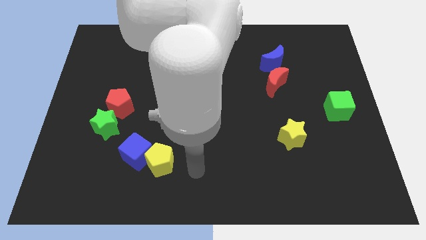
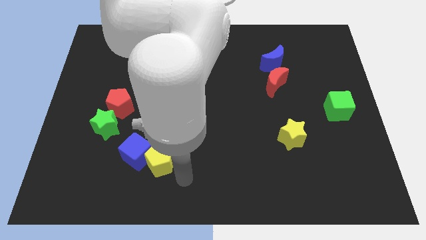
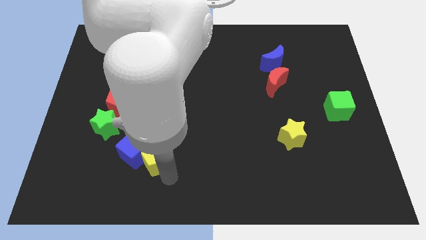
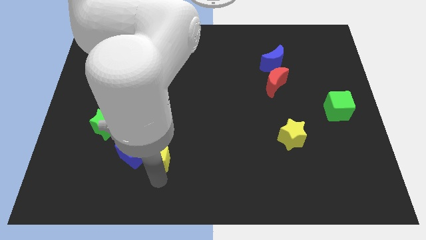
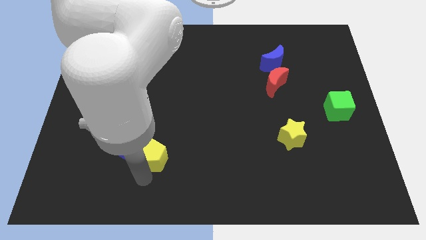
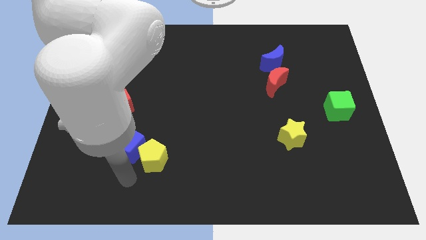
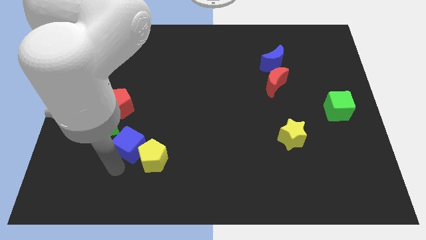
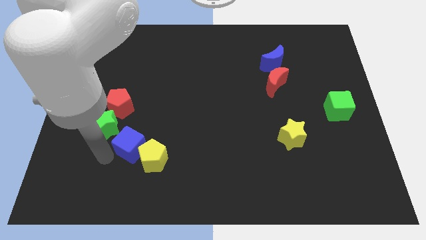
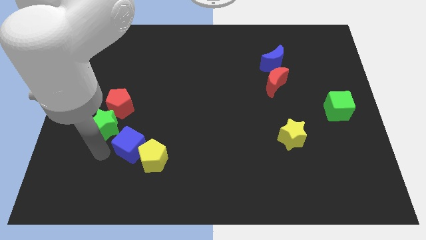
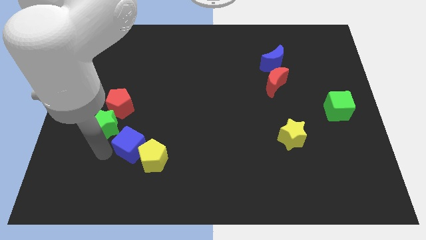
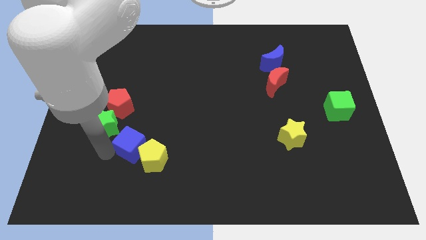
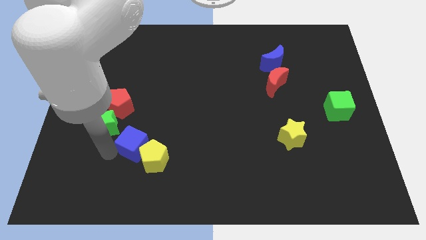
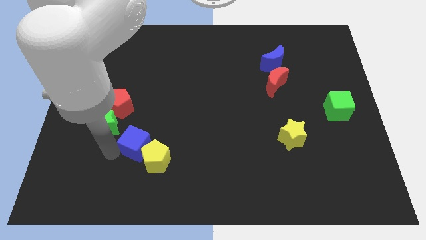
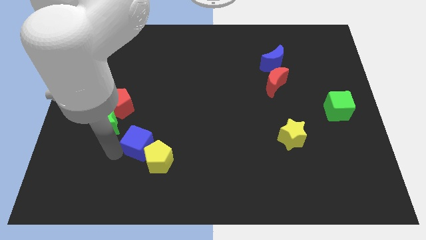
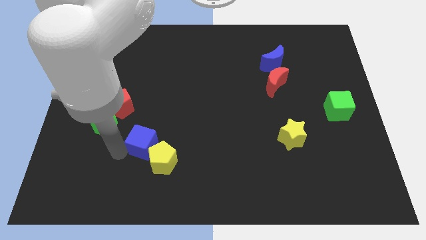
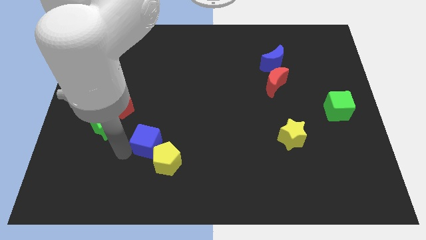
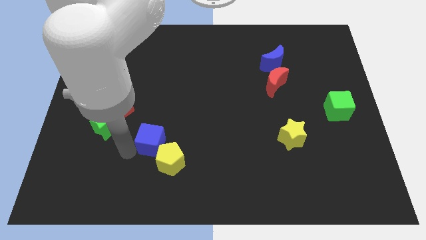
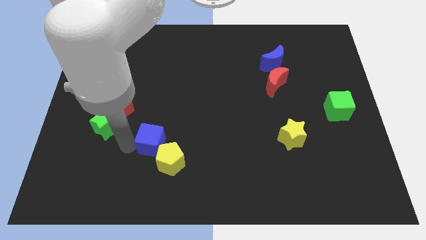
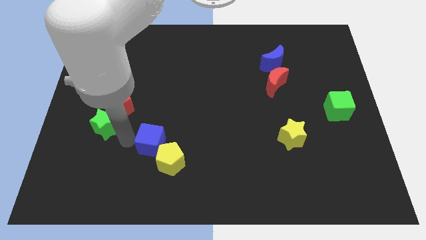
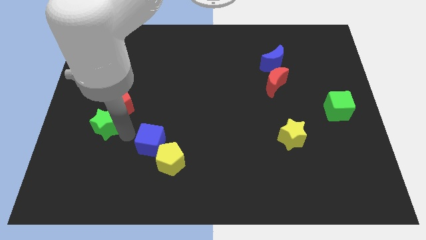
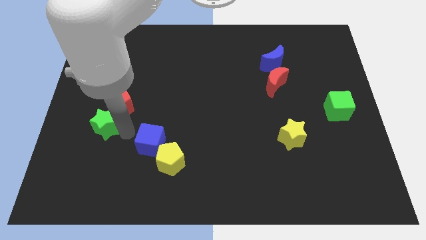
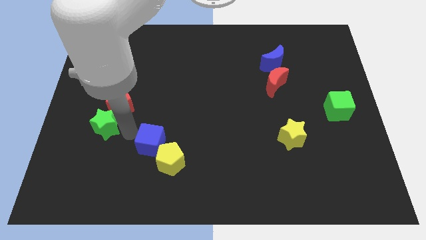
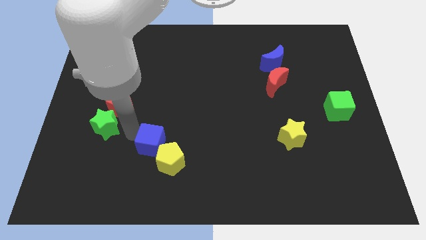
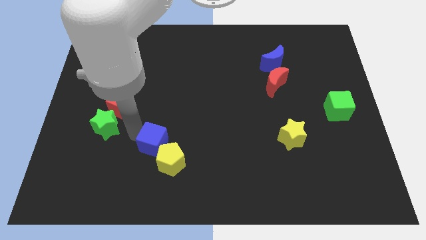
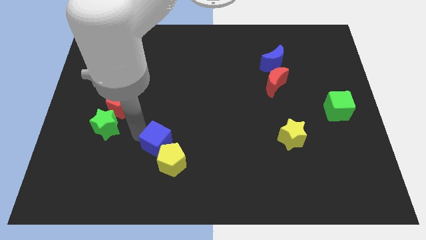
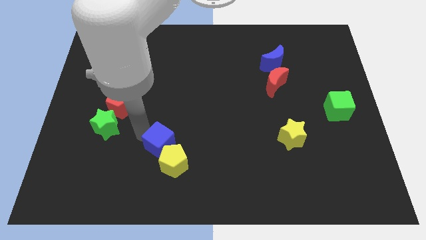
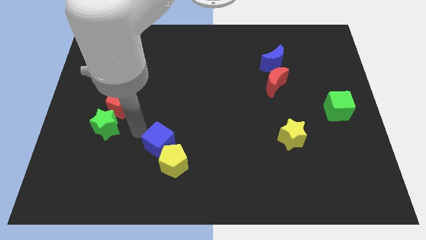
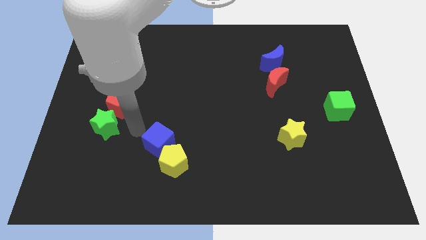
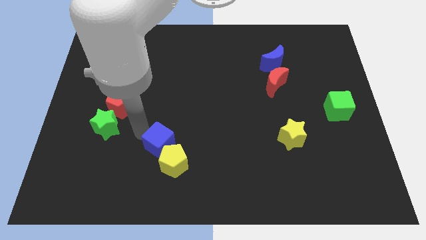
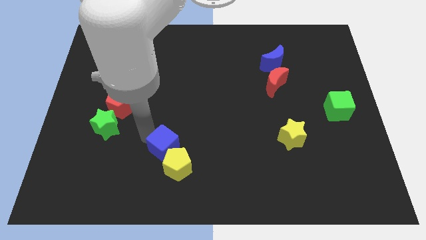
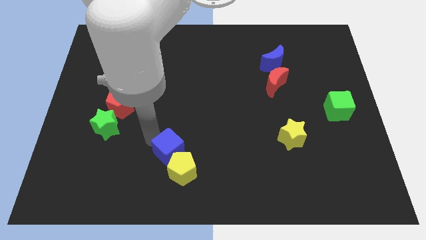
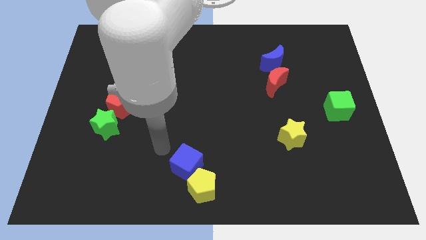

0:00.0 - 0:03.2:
slightly slide the blue cube to the right

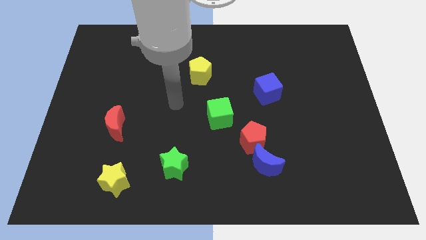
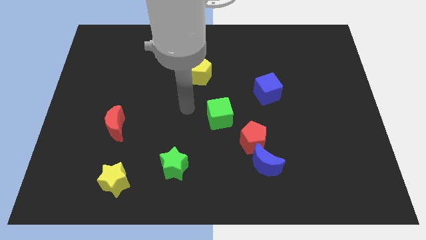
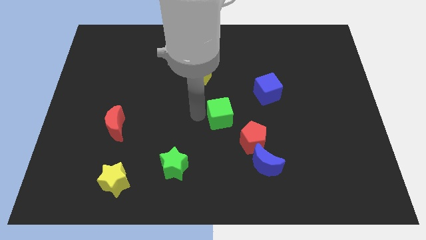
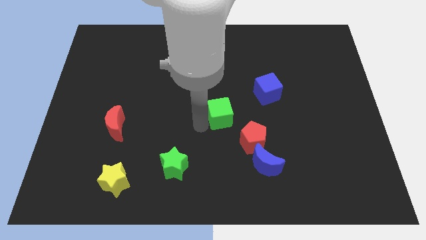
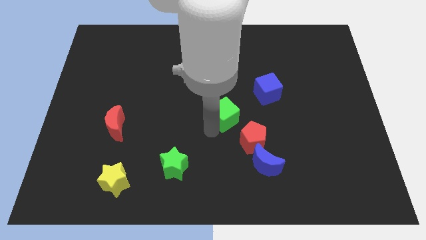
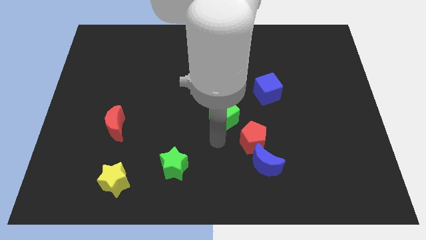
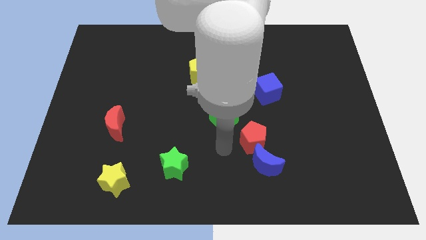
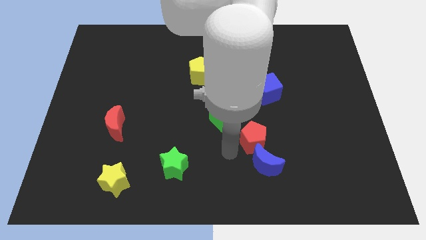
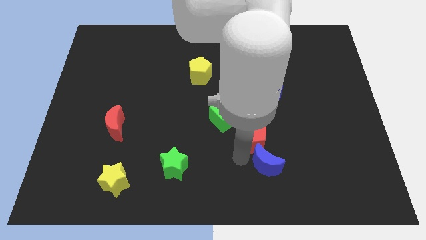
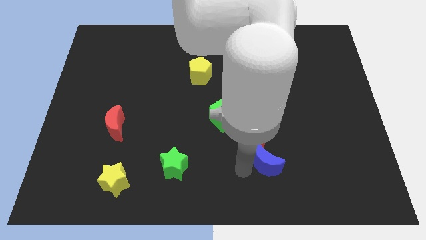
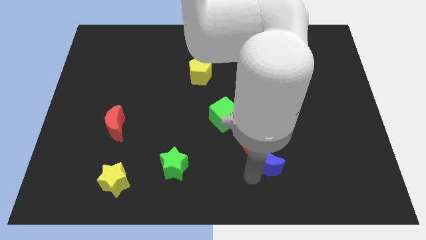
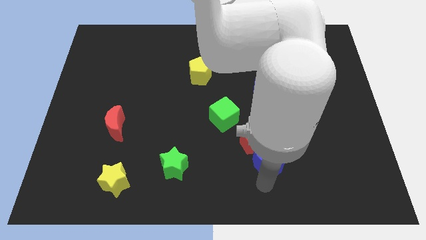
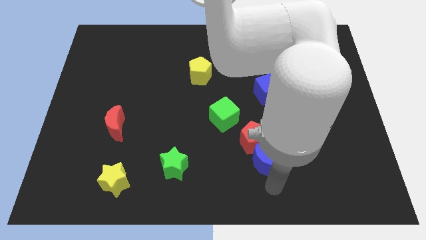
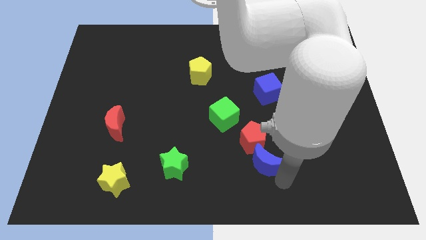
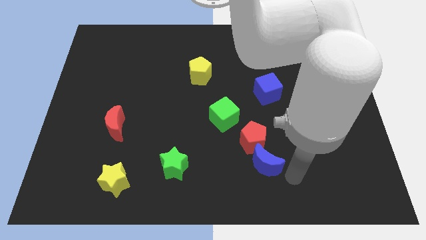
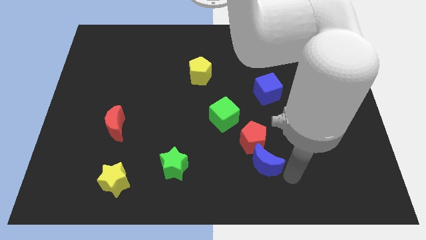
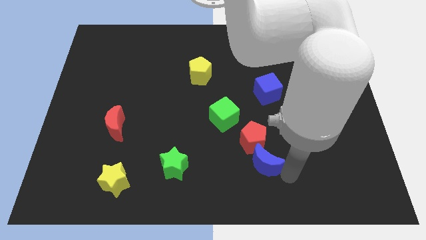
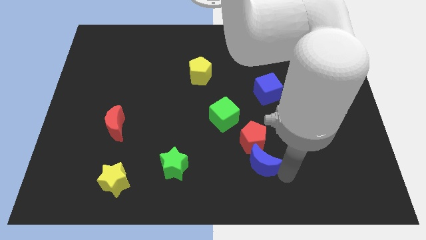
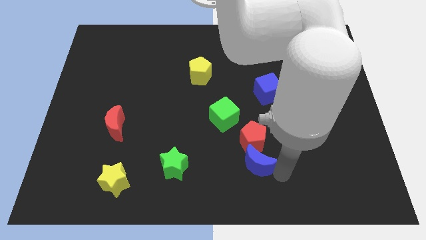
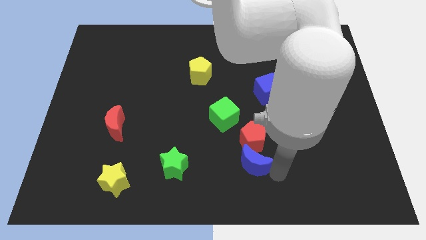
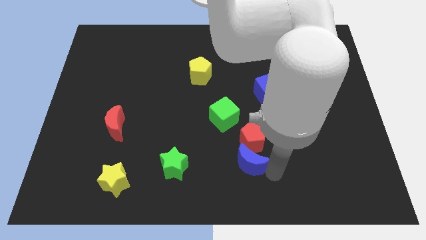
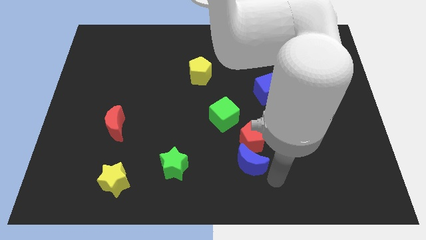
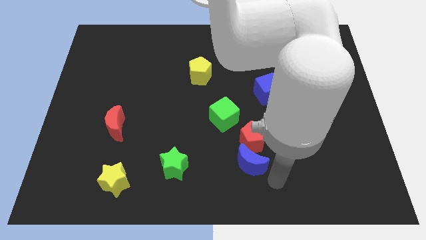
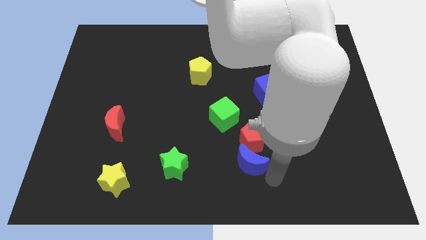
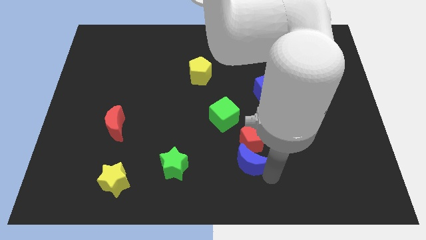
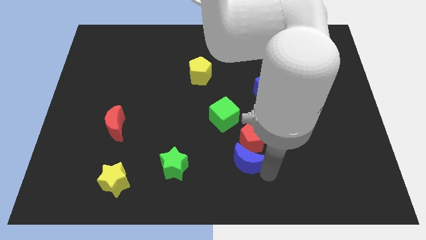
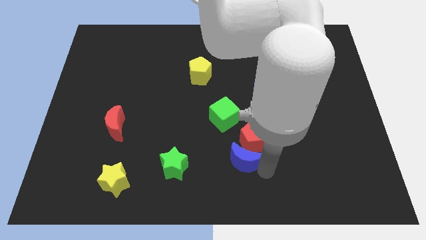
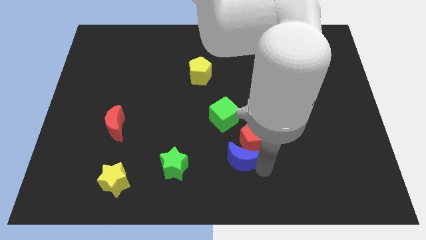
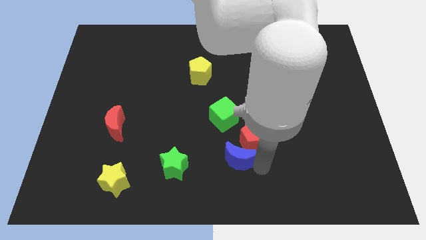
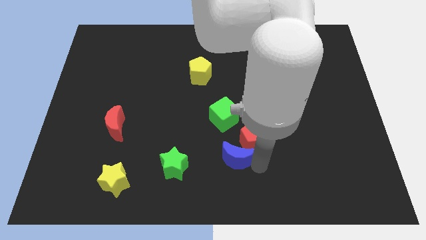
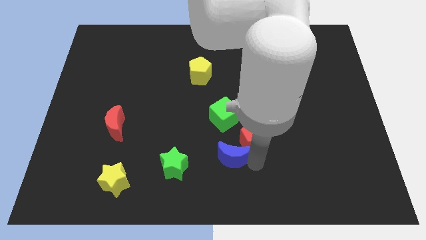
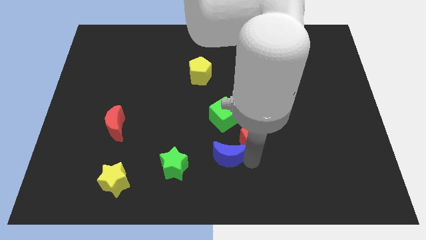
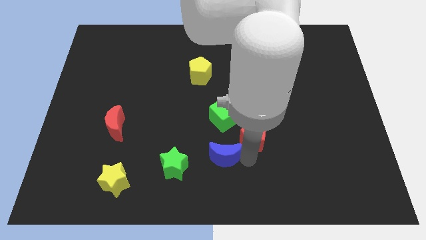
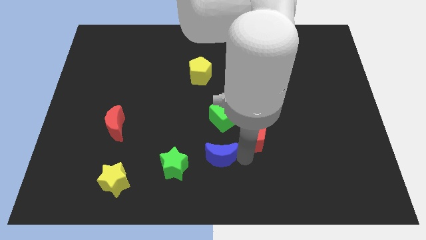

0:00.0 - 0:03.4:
slide the blue moon a bit up and left diagonally

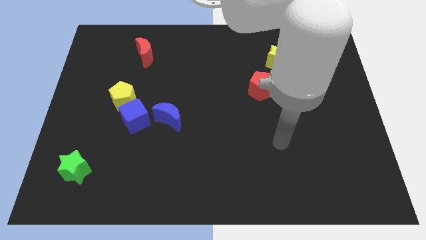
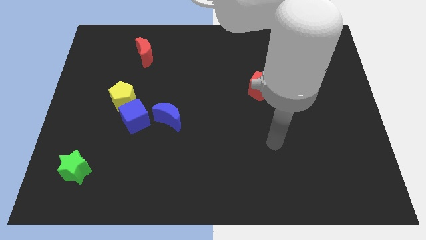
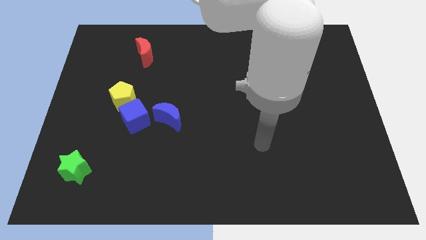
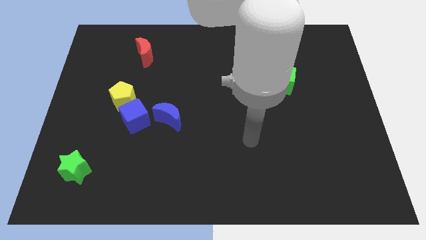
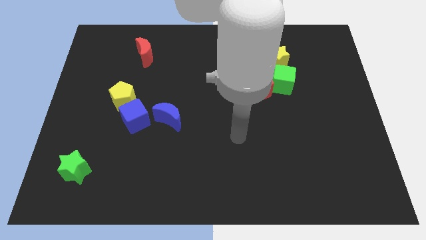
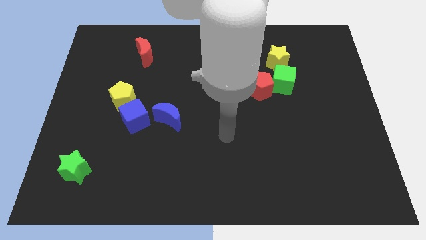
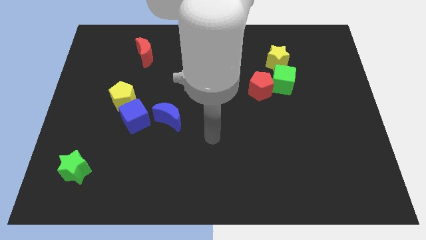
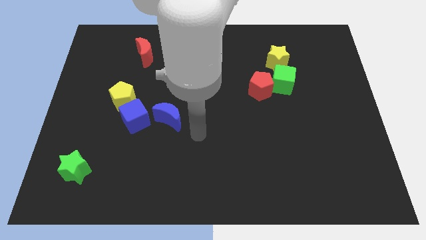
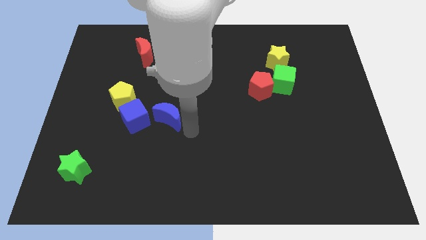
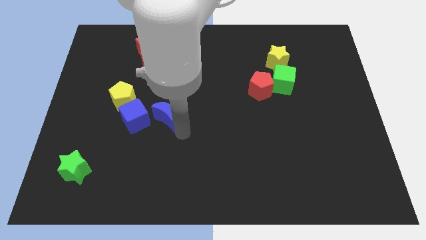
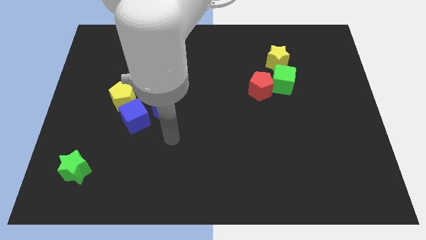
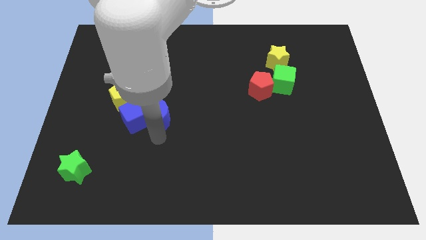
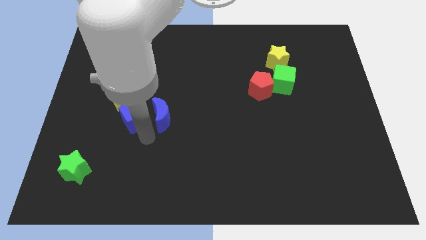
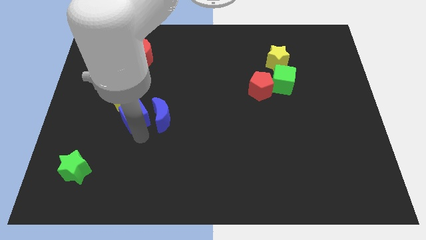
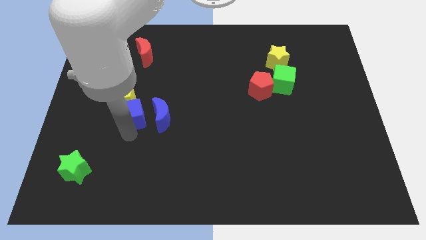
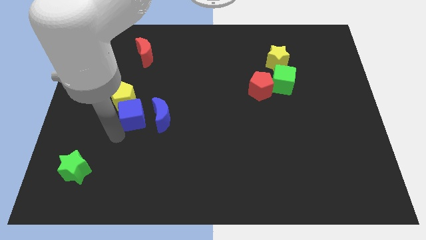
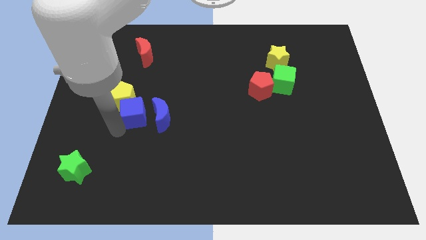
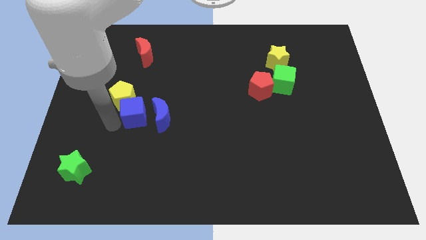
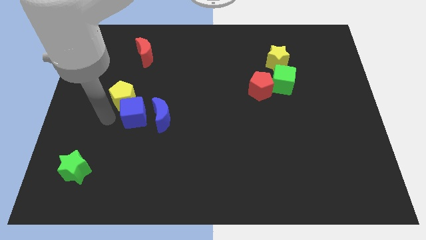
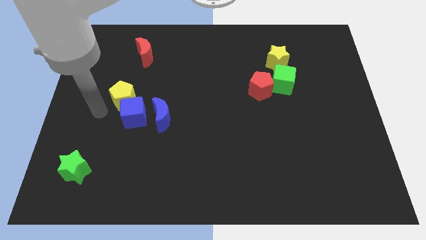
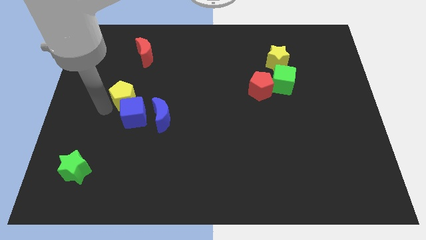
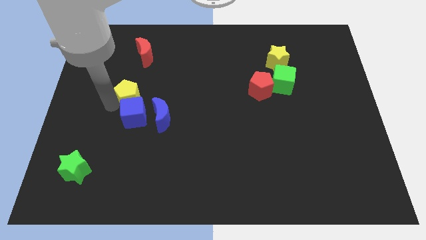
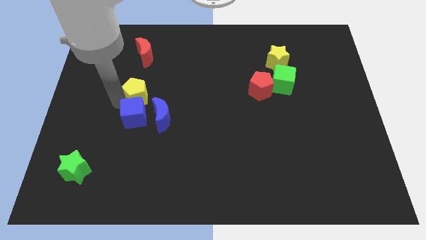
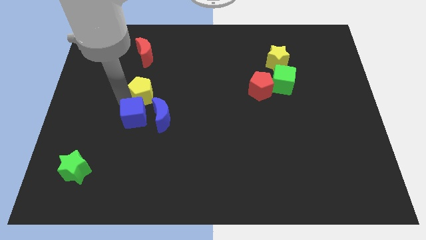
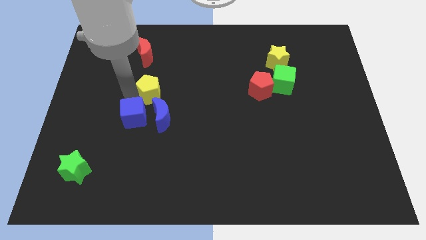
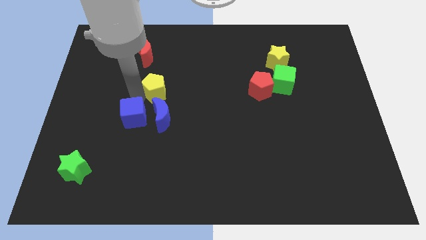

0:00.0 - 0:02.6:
slightly push the yellow pentagon up and right diagonally
